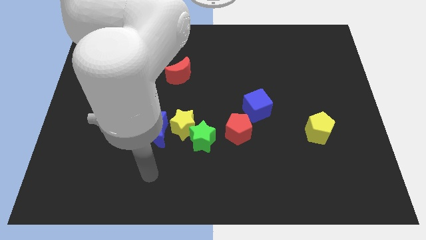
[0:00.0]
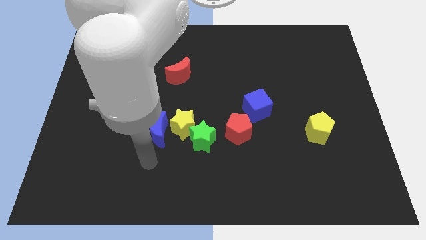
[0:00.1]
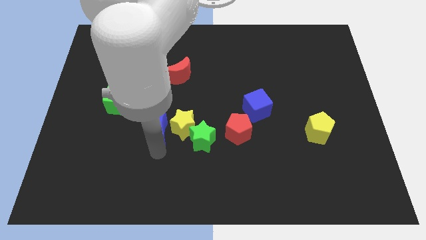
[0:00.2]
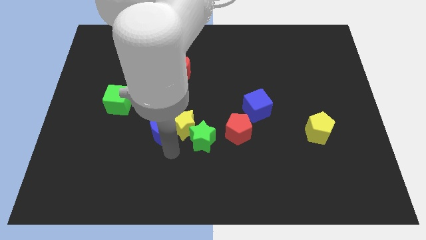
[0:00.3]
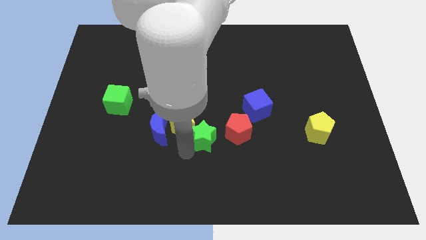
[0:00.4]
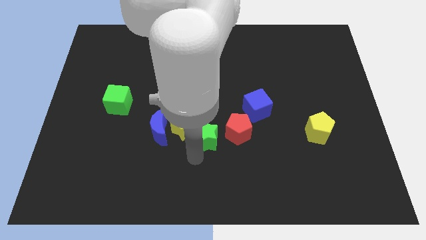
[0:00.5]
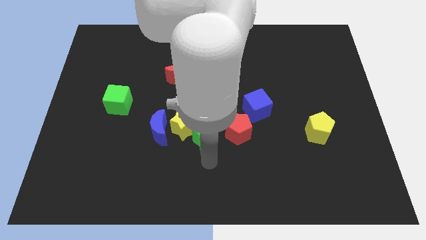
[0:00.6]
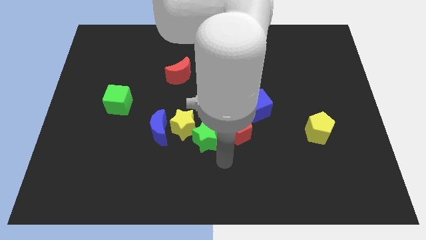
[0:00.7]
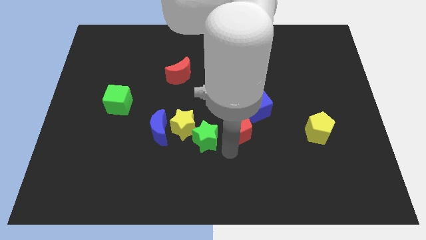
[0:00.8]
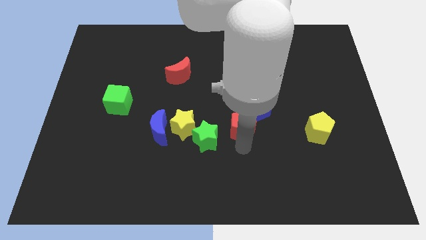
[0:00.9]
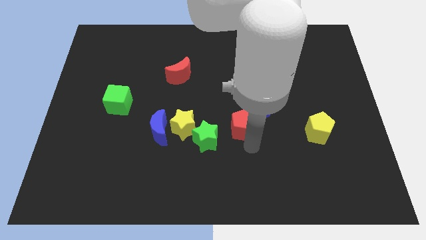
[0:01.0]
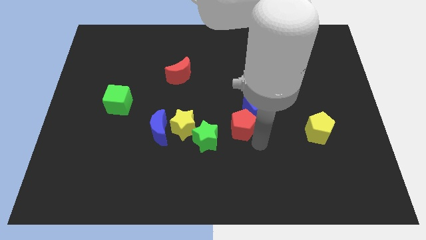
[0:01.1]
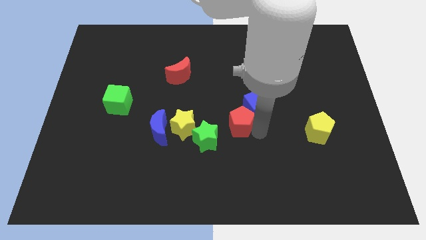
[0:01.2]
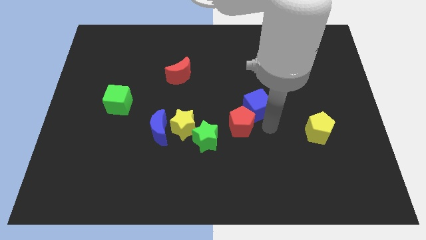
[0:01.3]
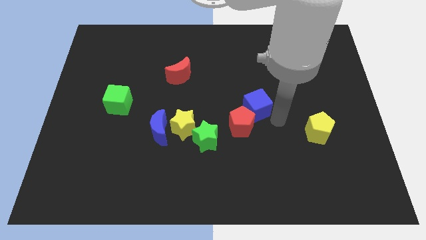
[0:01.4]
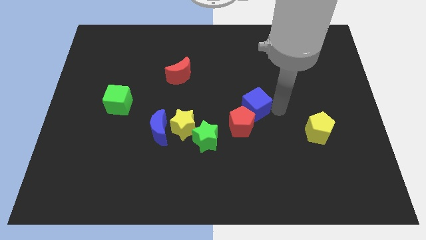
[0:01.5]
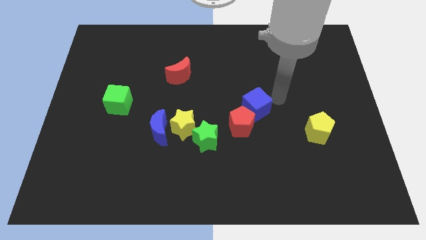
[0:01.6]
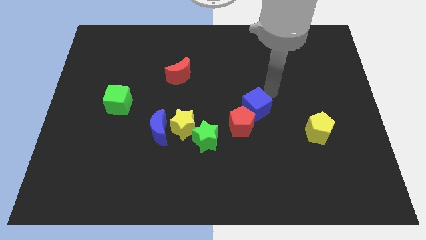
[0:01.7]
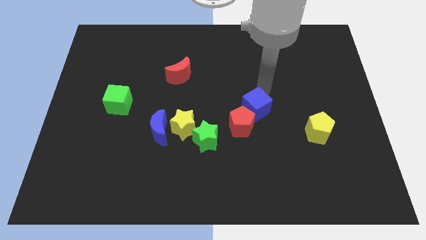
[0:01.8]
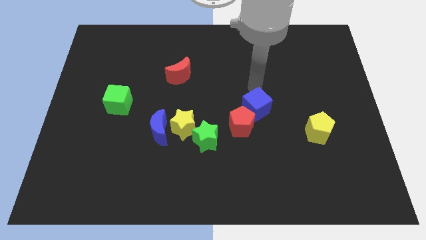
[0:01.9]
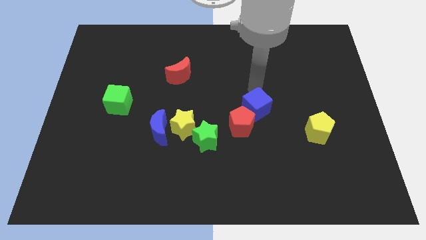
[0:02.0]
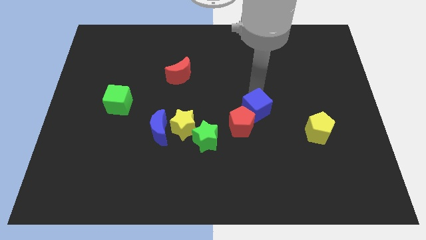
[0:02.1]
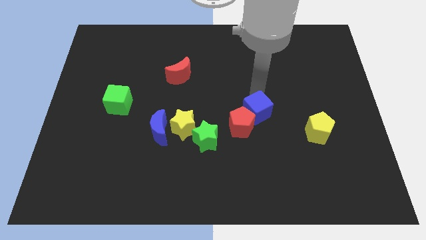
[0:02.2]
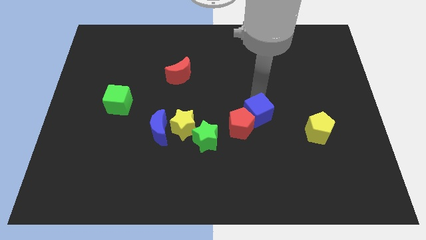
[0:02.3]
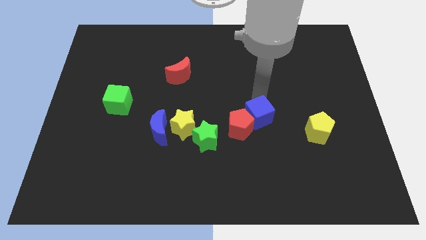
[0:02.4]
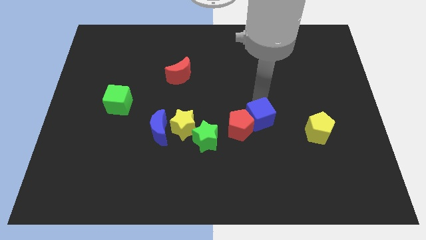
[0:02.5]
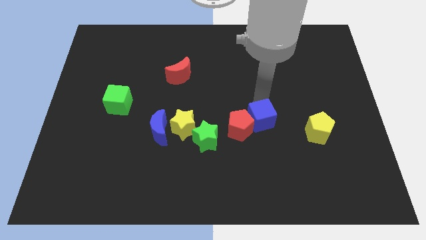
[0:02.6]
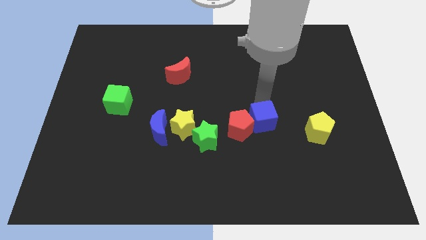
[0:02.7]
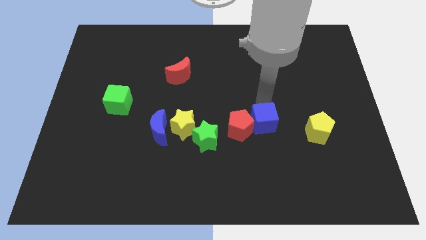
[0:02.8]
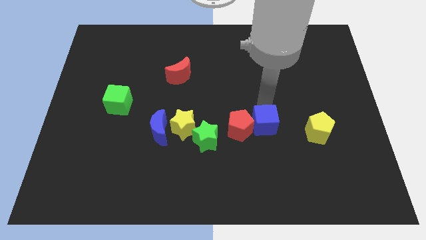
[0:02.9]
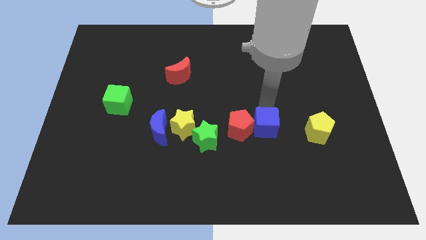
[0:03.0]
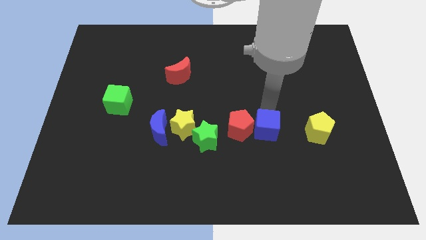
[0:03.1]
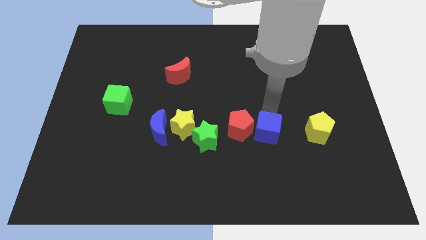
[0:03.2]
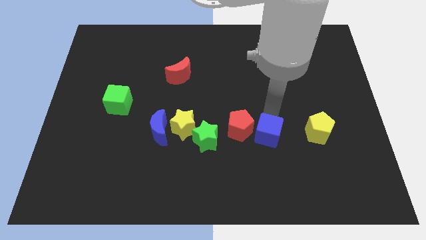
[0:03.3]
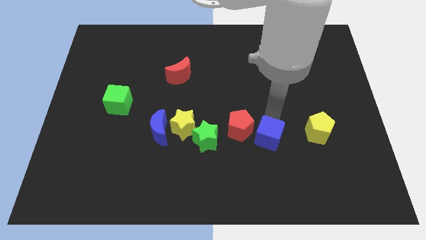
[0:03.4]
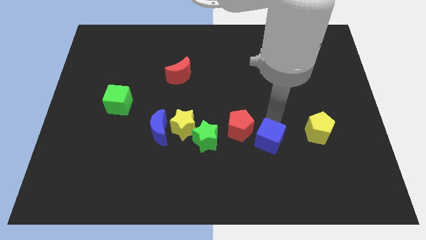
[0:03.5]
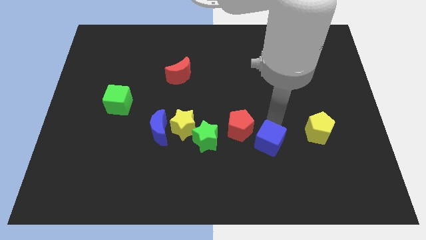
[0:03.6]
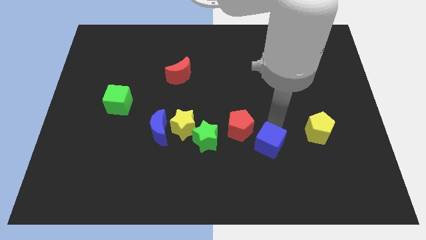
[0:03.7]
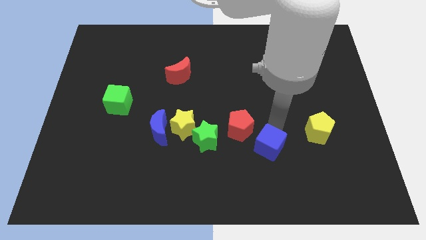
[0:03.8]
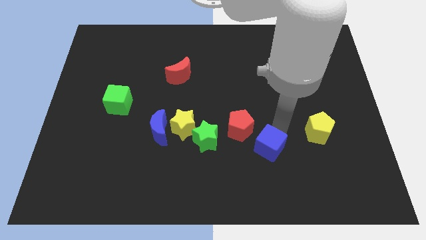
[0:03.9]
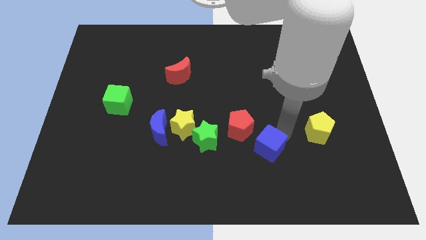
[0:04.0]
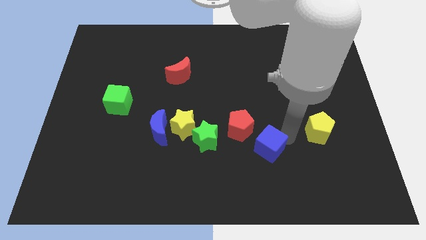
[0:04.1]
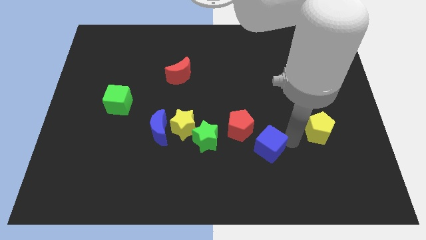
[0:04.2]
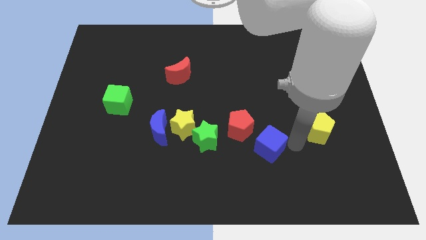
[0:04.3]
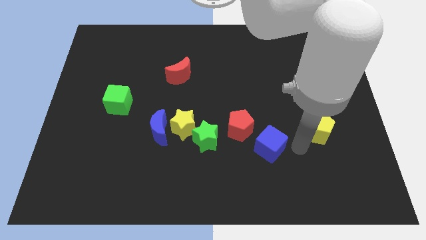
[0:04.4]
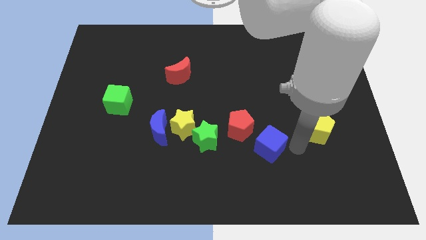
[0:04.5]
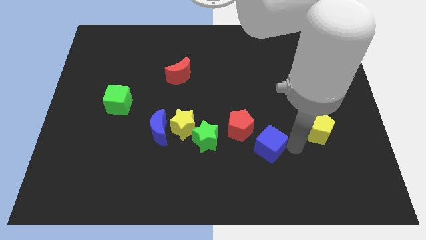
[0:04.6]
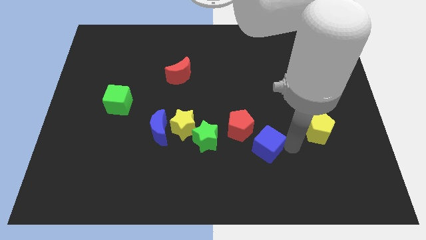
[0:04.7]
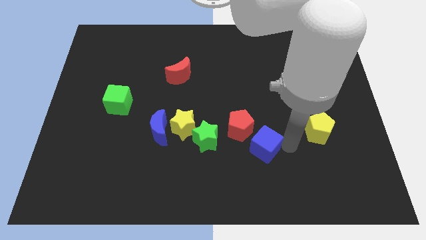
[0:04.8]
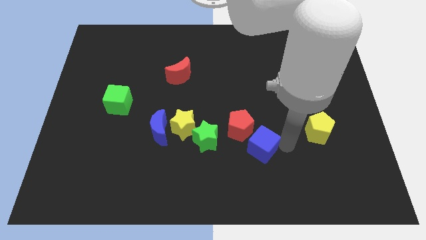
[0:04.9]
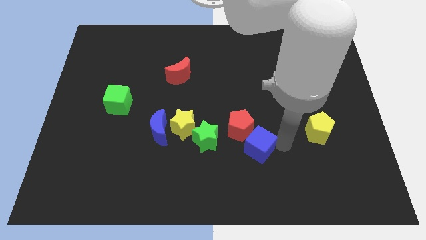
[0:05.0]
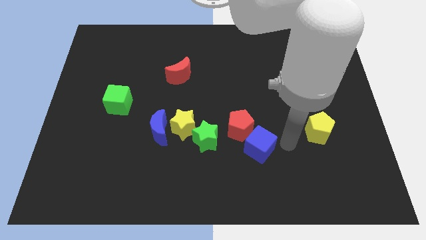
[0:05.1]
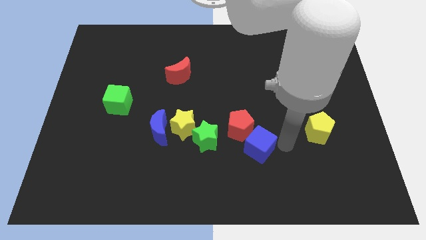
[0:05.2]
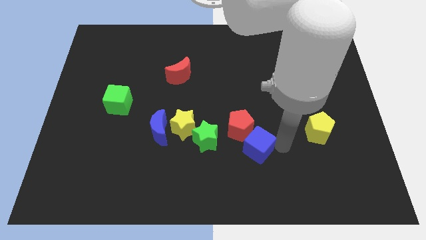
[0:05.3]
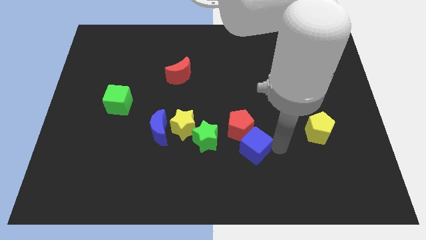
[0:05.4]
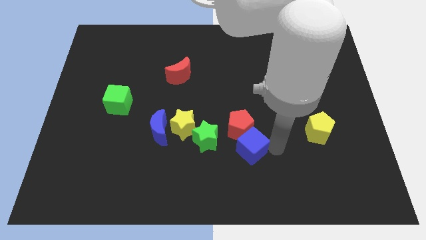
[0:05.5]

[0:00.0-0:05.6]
slightly push the blue cube down and to the left diagonally

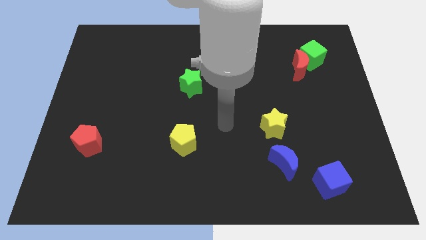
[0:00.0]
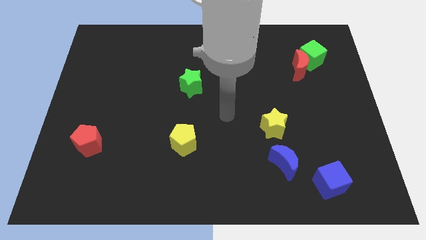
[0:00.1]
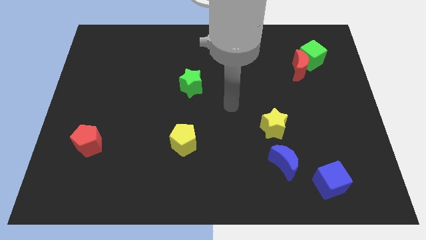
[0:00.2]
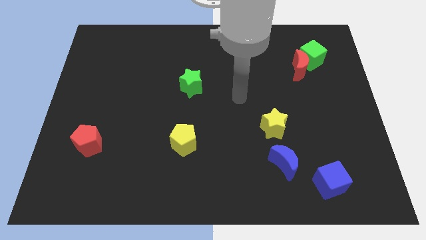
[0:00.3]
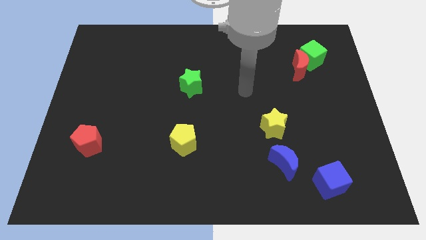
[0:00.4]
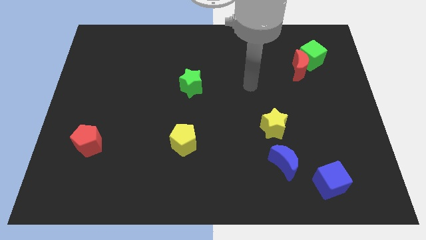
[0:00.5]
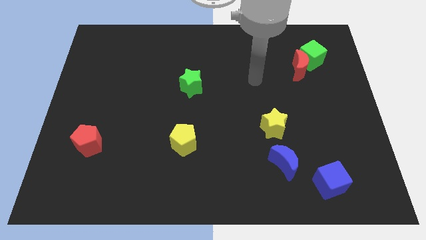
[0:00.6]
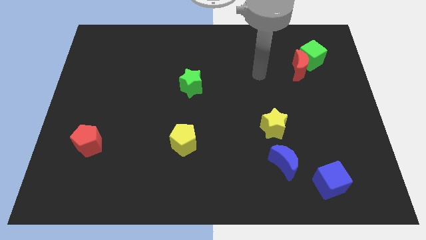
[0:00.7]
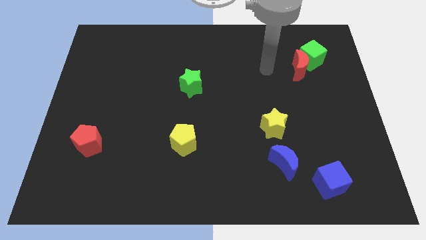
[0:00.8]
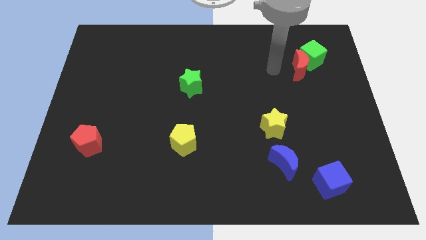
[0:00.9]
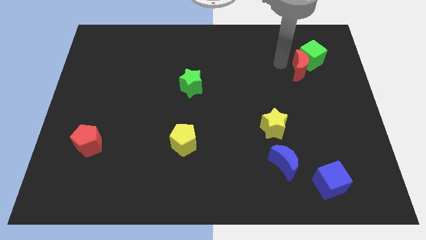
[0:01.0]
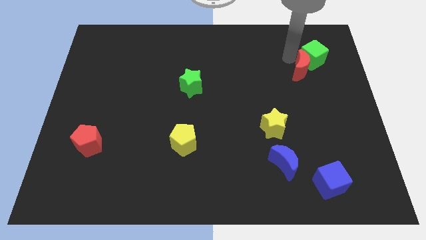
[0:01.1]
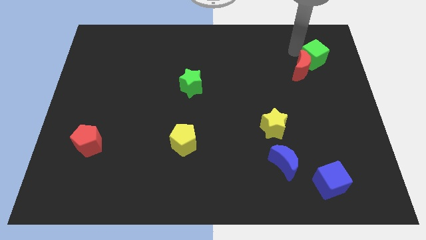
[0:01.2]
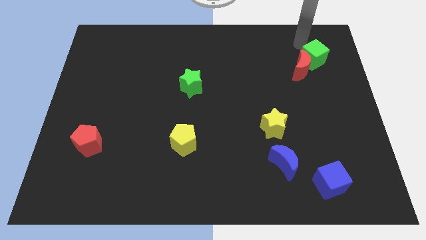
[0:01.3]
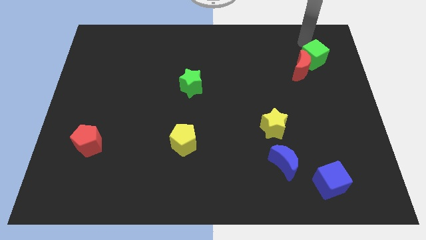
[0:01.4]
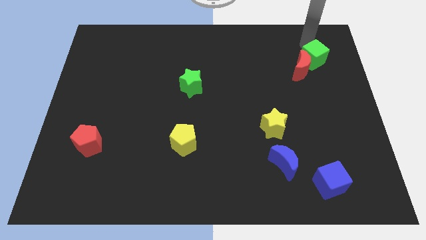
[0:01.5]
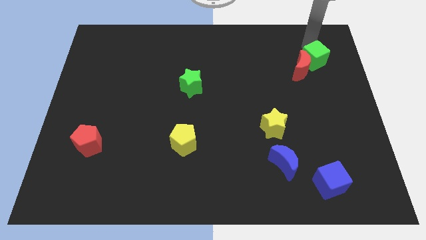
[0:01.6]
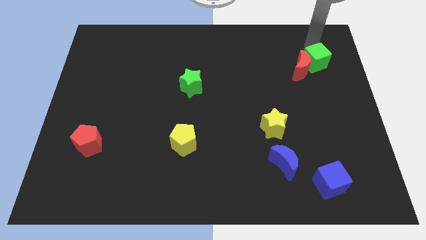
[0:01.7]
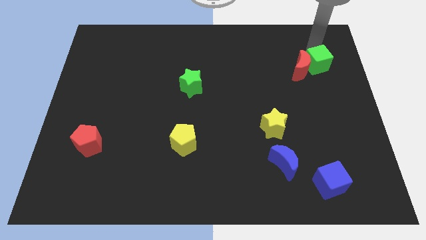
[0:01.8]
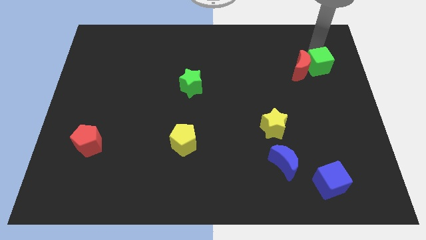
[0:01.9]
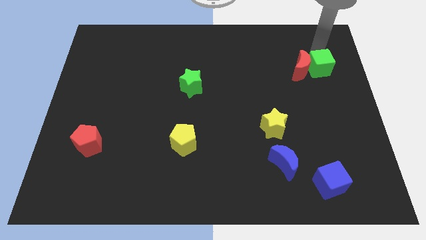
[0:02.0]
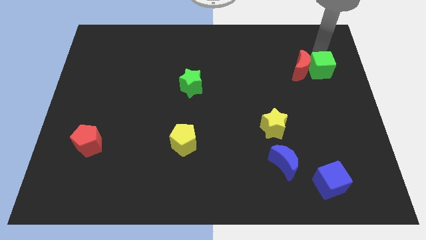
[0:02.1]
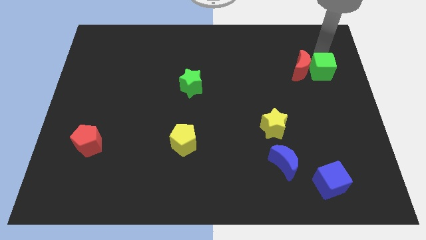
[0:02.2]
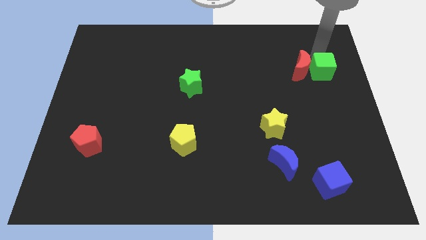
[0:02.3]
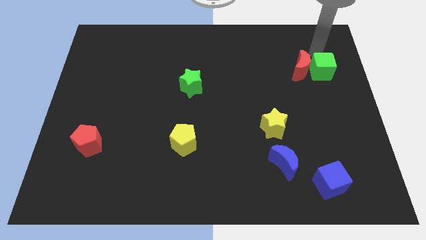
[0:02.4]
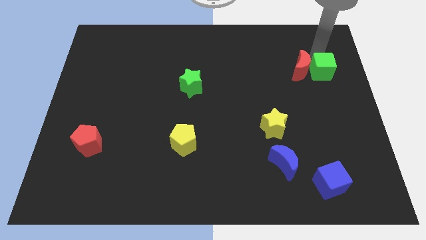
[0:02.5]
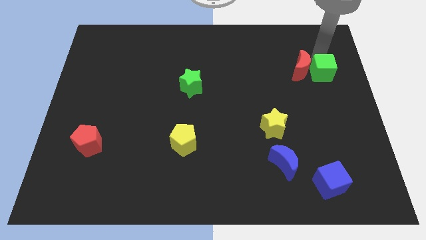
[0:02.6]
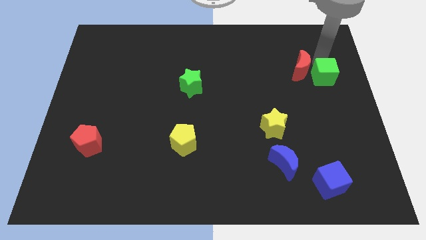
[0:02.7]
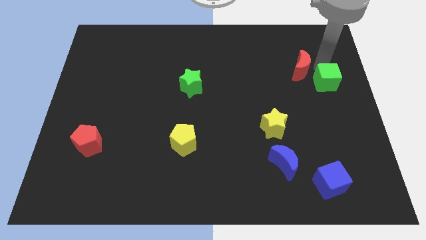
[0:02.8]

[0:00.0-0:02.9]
move the green cube somewhat downwards
